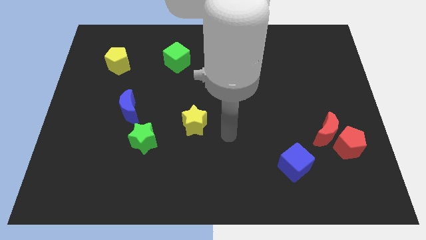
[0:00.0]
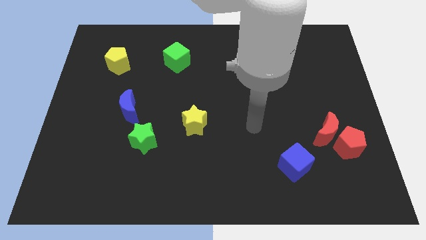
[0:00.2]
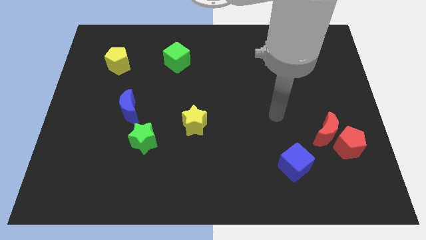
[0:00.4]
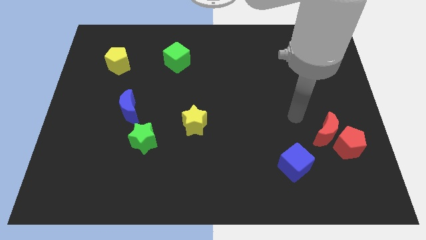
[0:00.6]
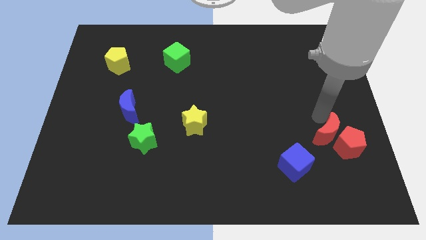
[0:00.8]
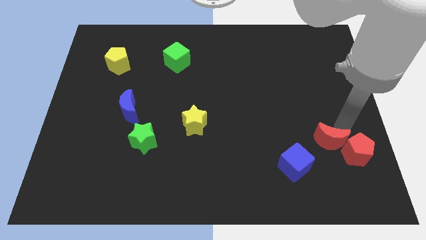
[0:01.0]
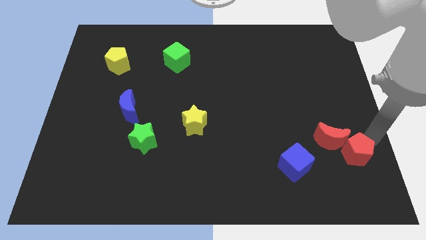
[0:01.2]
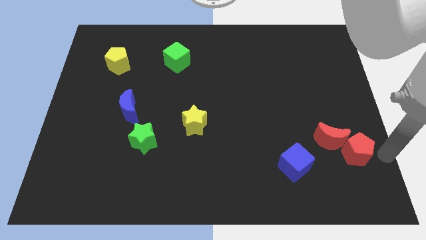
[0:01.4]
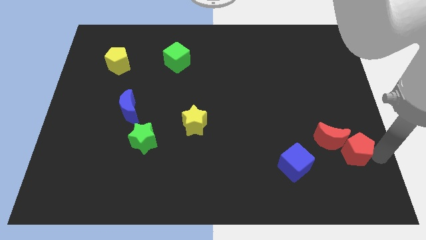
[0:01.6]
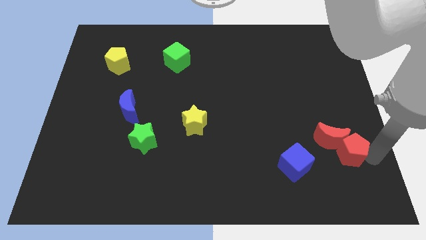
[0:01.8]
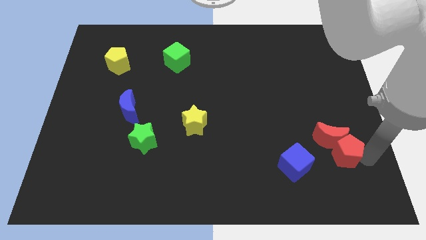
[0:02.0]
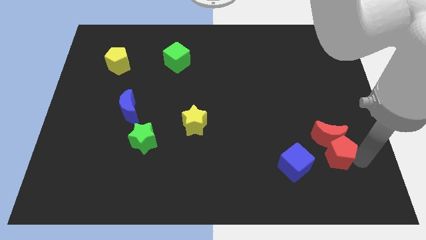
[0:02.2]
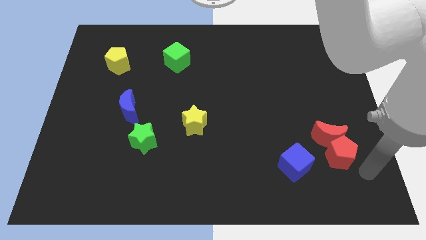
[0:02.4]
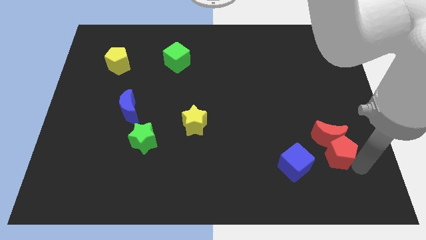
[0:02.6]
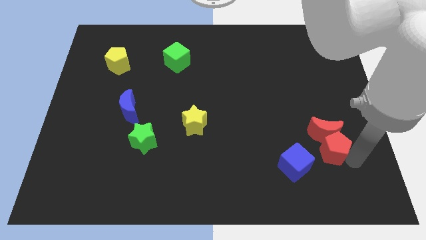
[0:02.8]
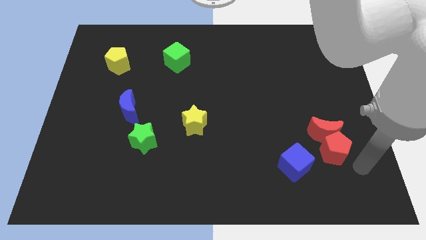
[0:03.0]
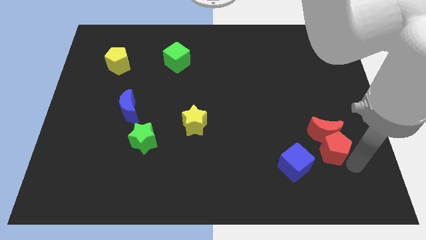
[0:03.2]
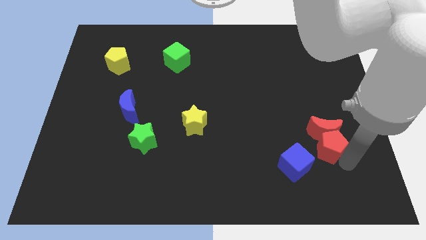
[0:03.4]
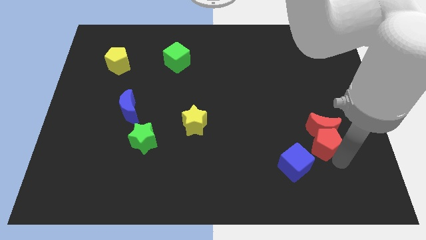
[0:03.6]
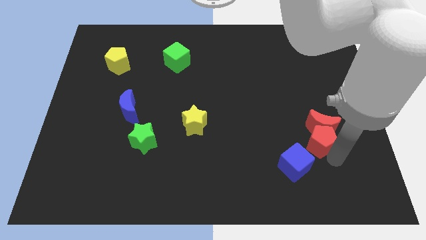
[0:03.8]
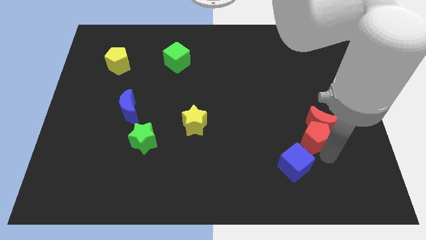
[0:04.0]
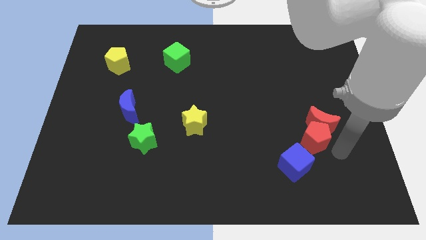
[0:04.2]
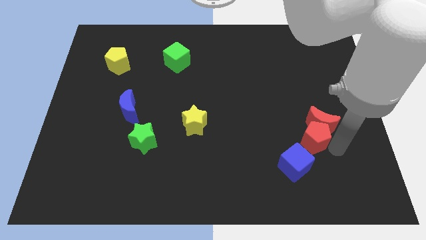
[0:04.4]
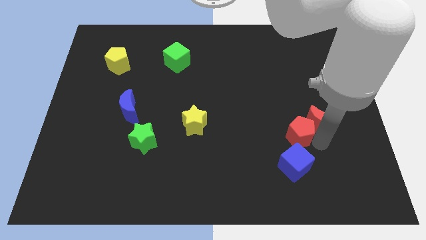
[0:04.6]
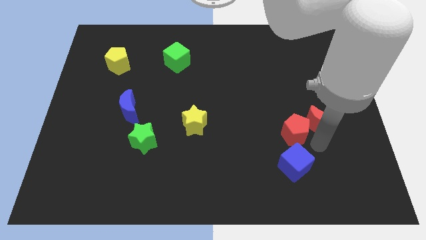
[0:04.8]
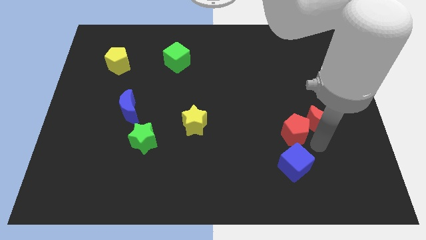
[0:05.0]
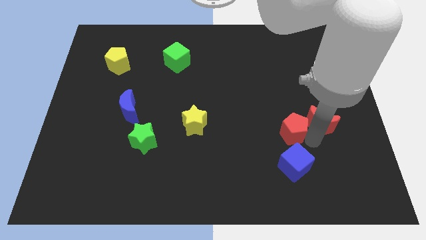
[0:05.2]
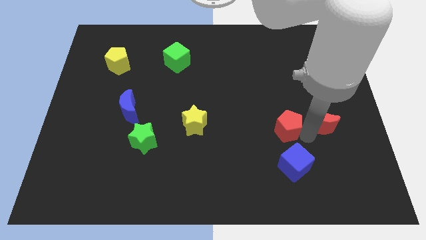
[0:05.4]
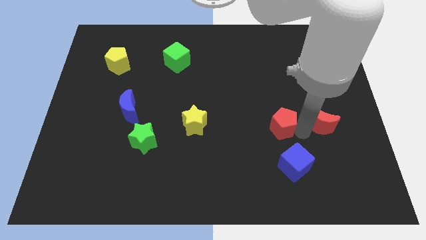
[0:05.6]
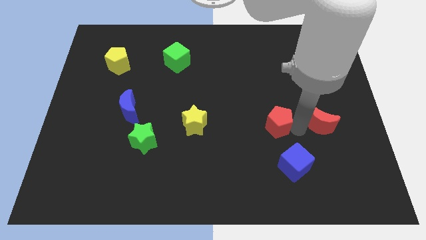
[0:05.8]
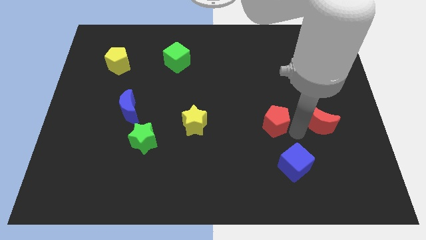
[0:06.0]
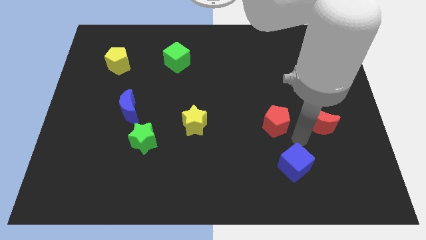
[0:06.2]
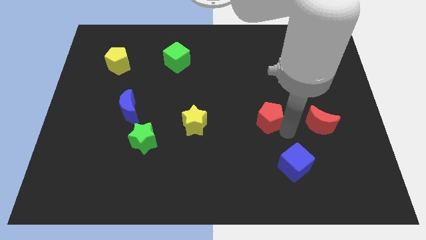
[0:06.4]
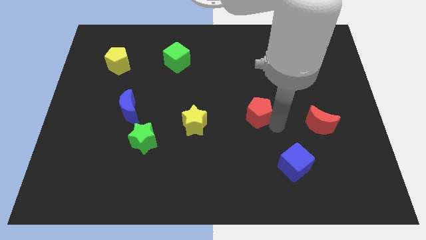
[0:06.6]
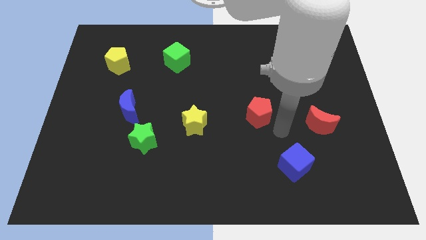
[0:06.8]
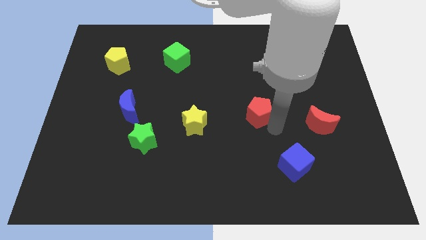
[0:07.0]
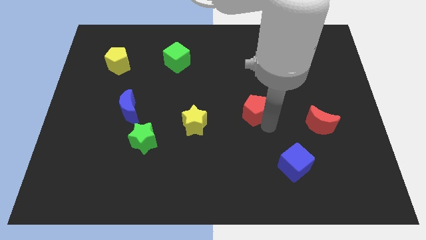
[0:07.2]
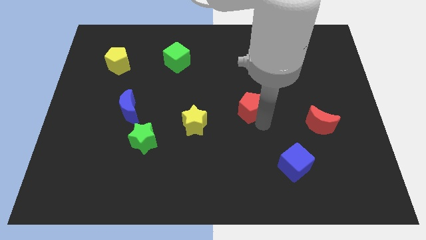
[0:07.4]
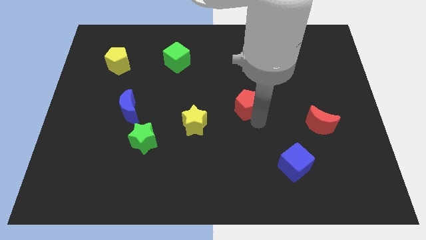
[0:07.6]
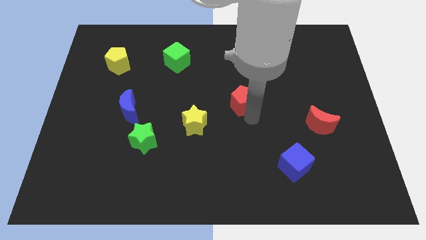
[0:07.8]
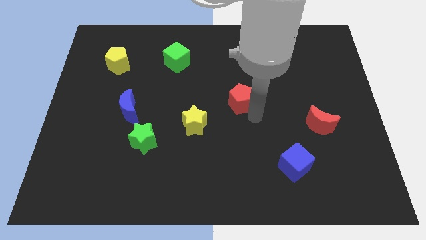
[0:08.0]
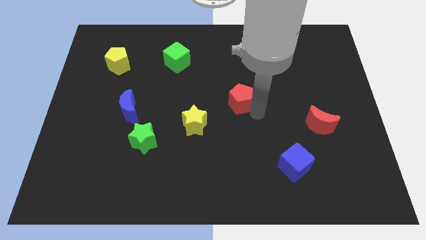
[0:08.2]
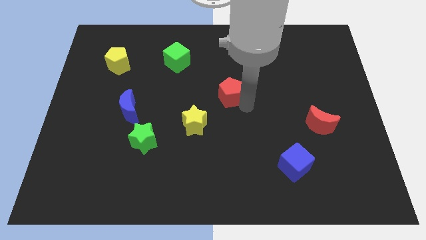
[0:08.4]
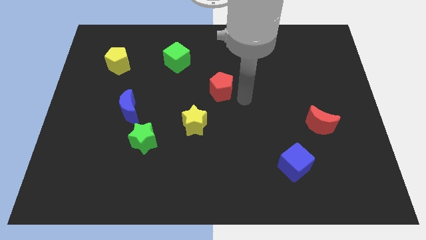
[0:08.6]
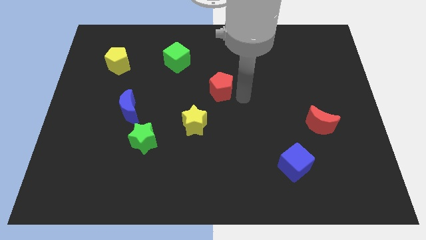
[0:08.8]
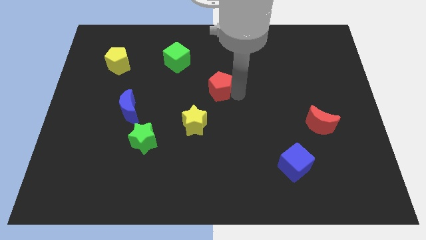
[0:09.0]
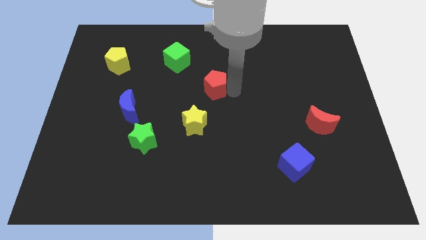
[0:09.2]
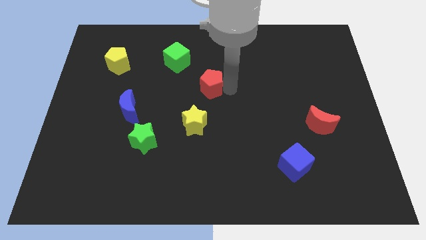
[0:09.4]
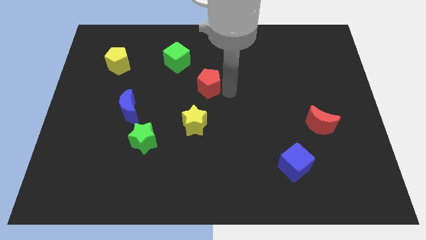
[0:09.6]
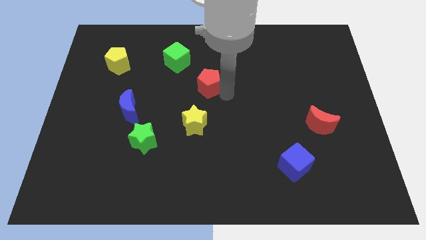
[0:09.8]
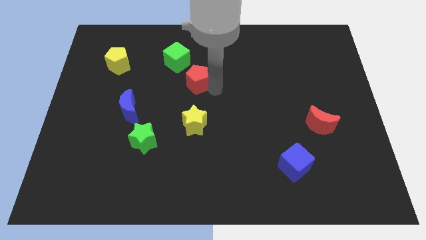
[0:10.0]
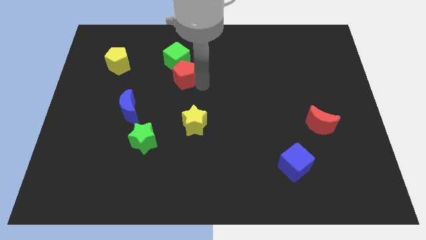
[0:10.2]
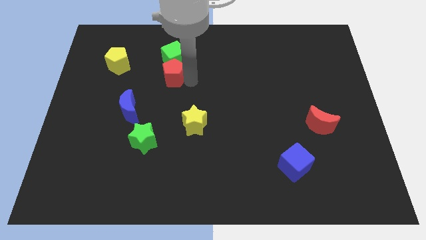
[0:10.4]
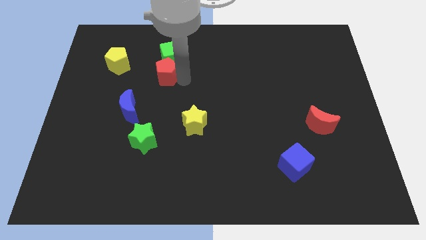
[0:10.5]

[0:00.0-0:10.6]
slide the red pentagon just right of the yellow pentagon

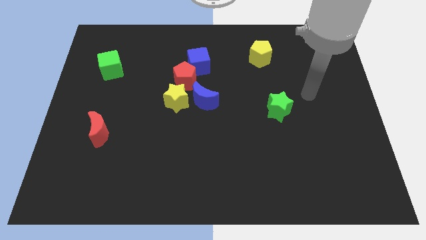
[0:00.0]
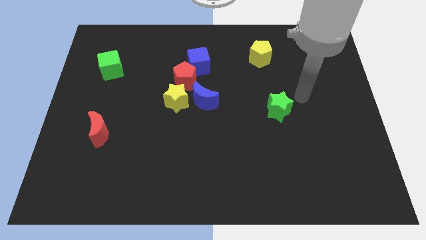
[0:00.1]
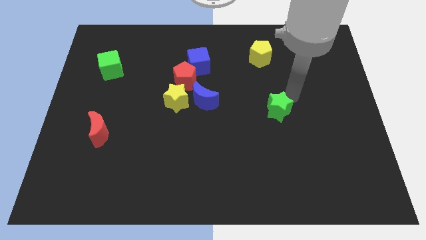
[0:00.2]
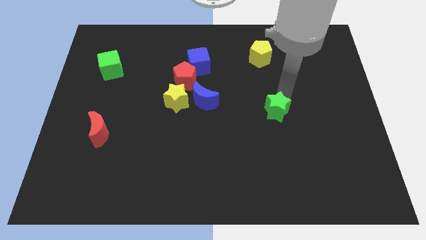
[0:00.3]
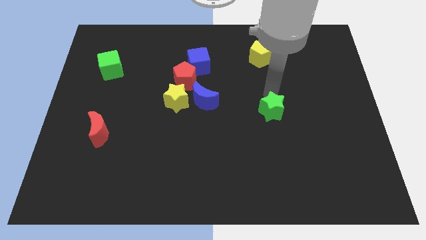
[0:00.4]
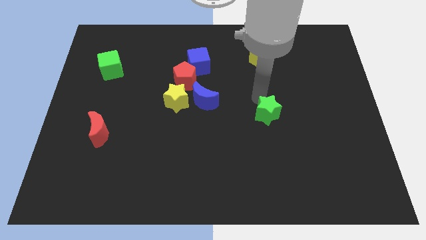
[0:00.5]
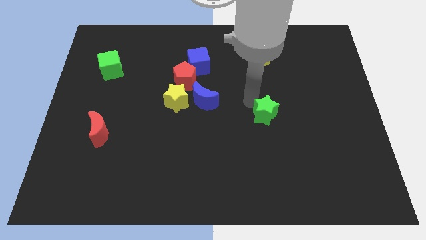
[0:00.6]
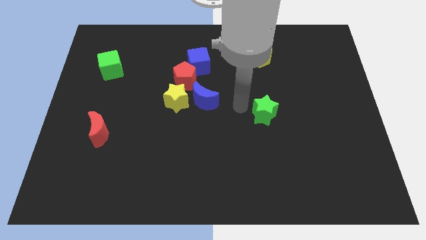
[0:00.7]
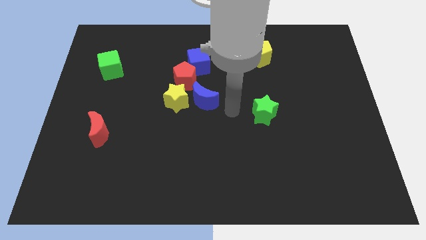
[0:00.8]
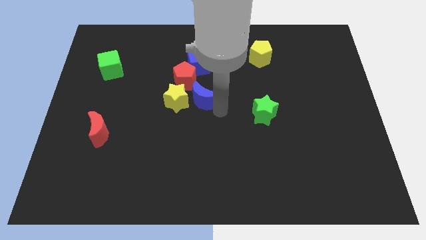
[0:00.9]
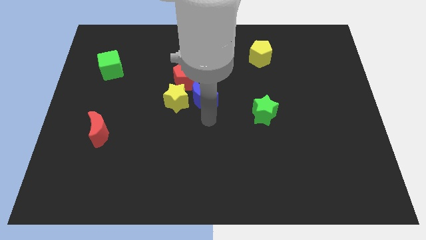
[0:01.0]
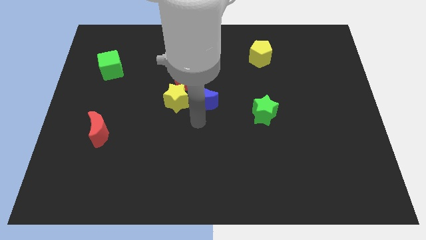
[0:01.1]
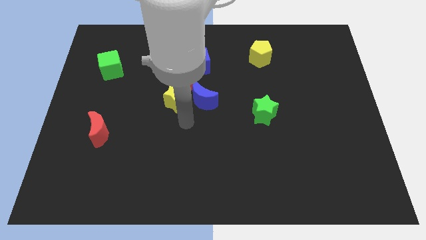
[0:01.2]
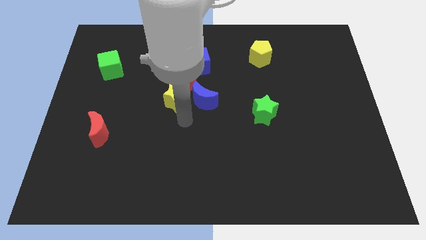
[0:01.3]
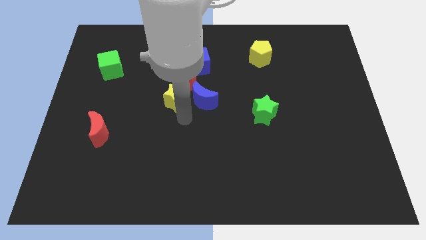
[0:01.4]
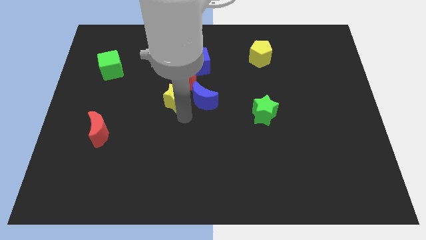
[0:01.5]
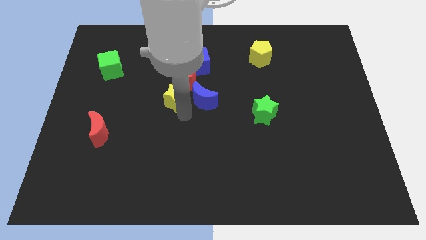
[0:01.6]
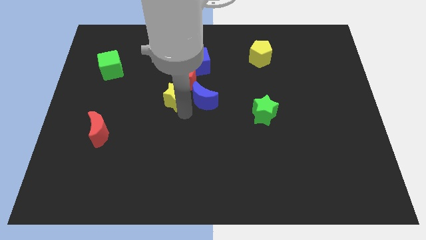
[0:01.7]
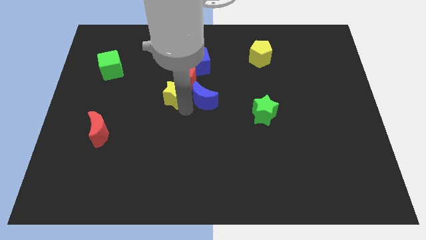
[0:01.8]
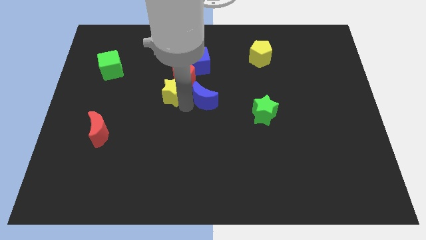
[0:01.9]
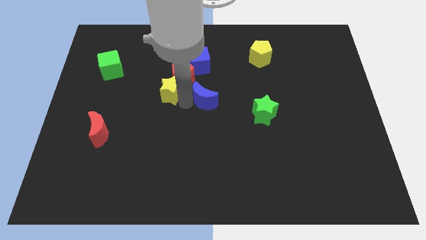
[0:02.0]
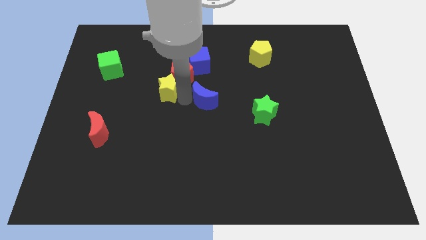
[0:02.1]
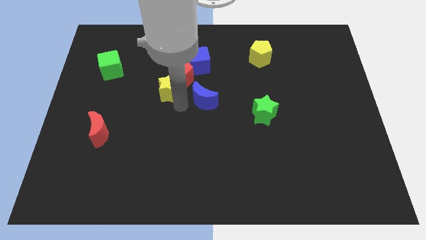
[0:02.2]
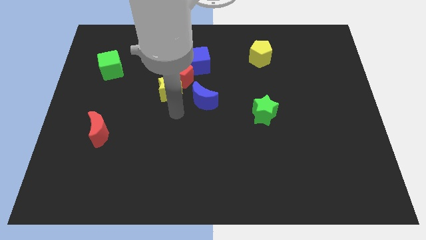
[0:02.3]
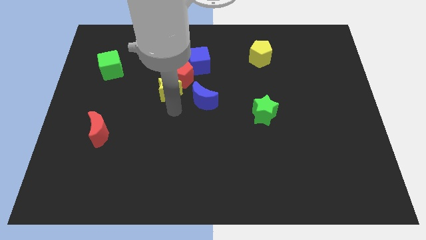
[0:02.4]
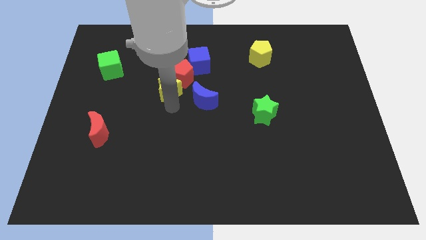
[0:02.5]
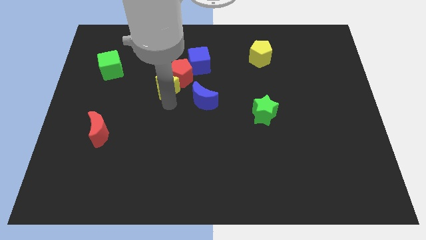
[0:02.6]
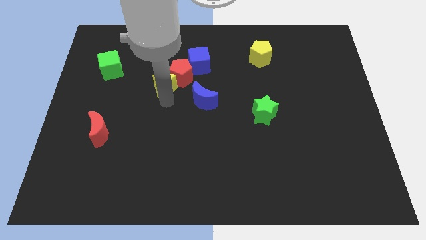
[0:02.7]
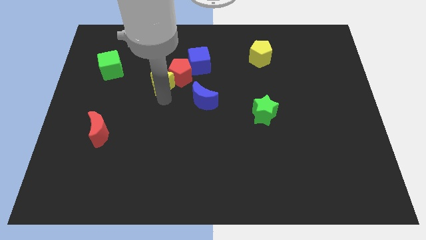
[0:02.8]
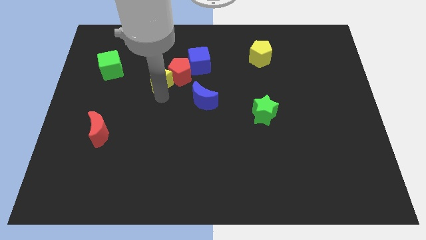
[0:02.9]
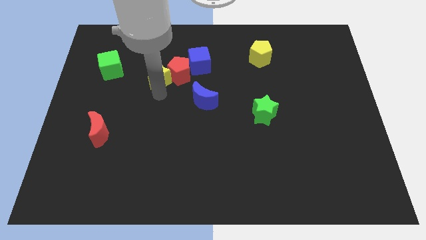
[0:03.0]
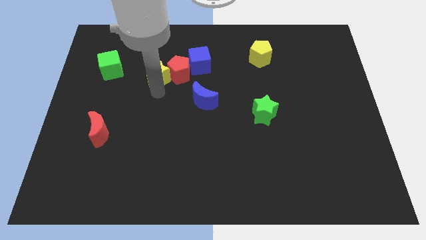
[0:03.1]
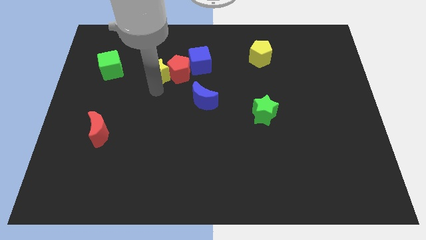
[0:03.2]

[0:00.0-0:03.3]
move the yellow star to the top left side of the red pentagon
